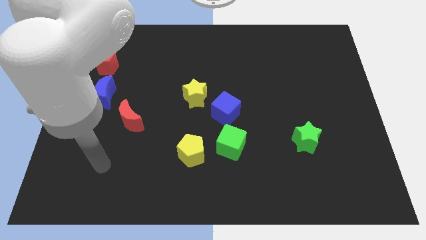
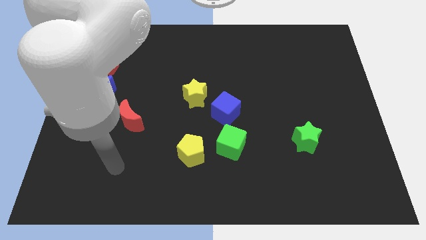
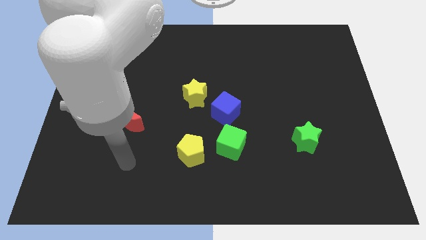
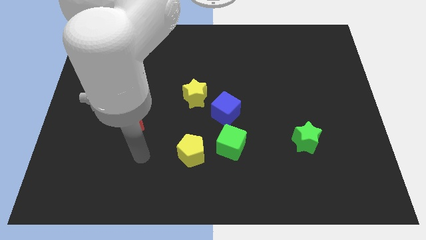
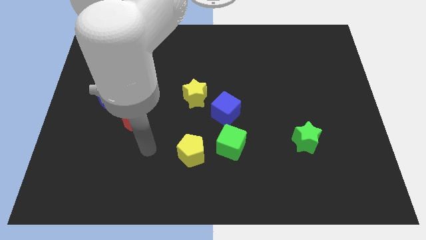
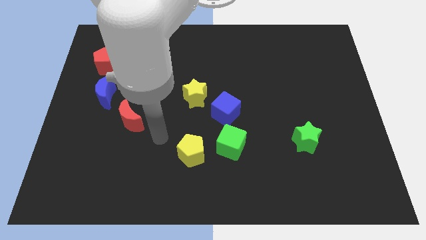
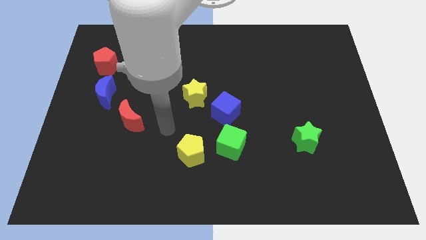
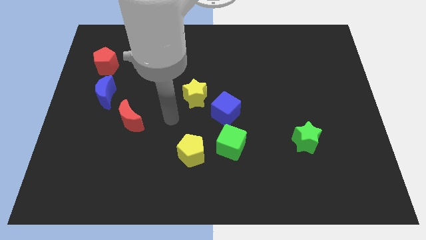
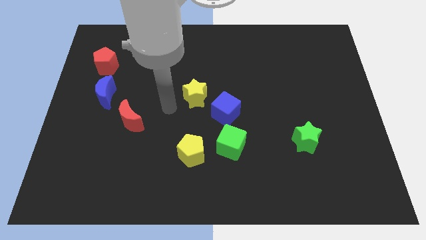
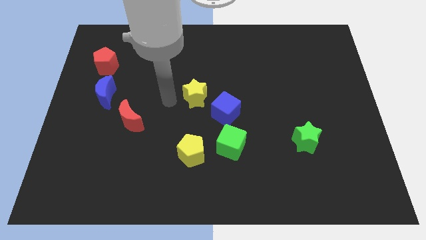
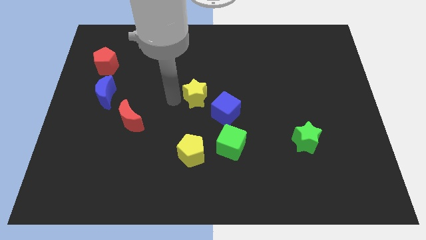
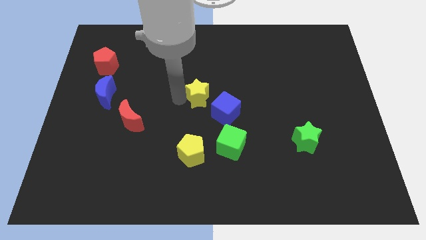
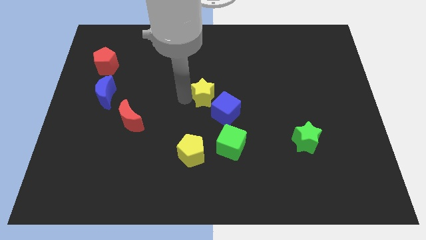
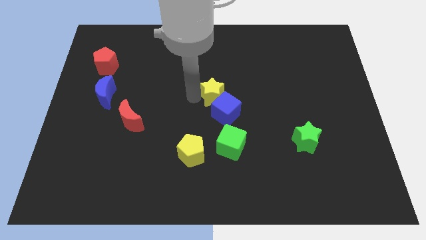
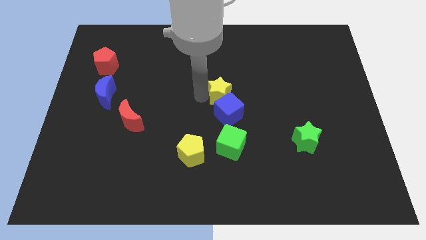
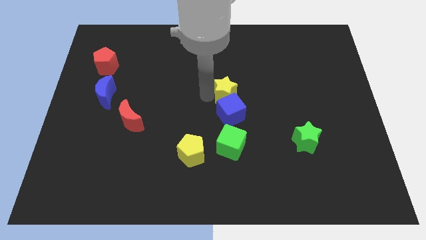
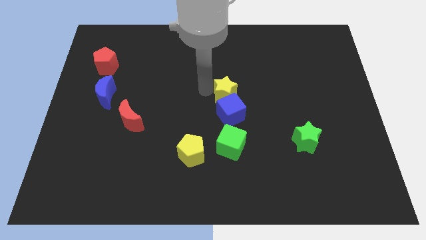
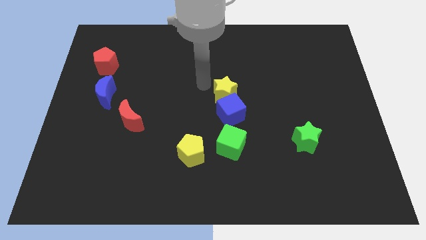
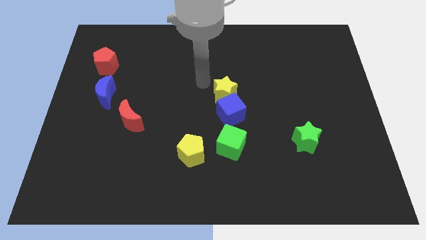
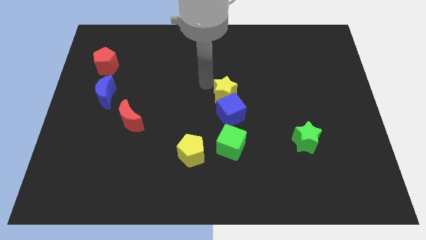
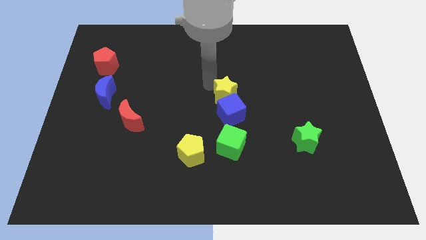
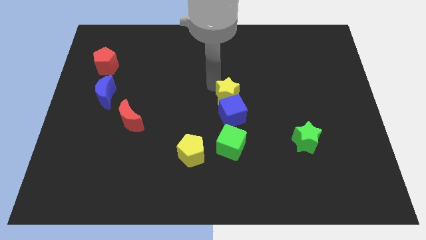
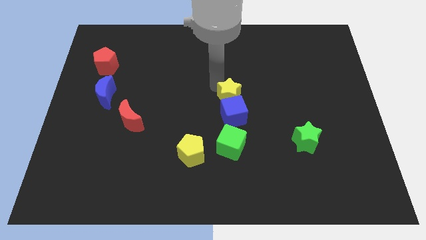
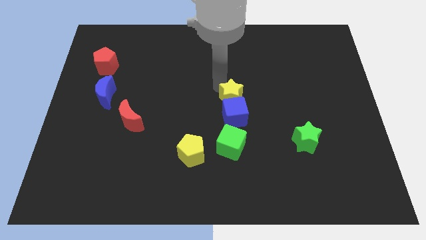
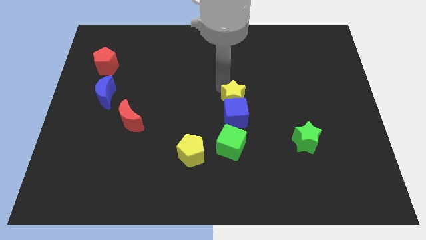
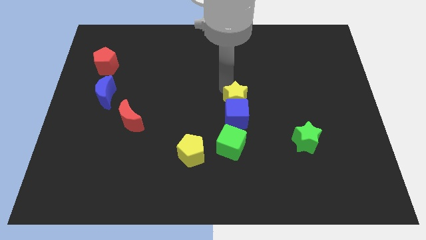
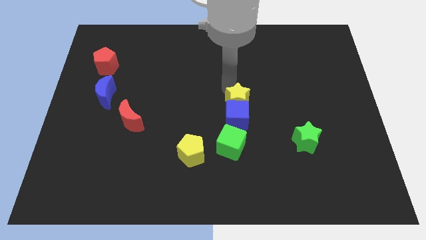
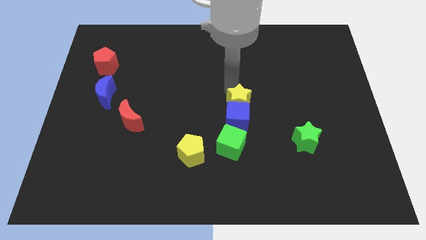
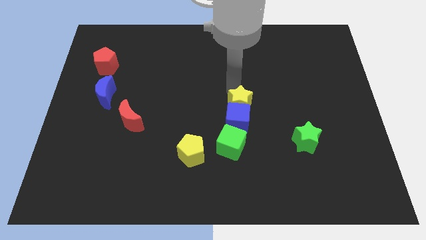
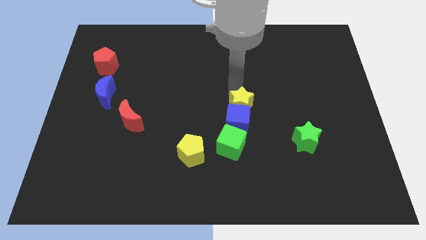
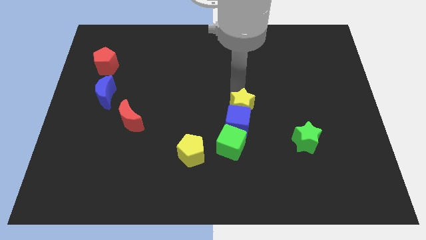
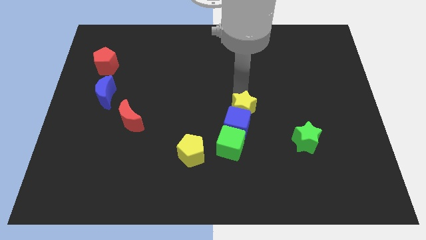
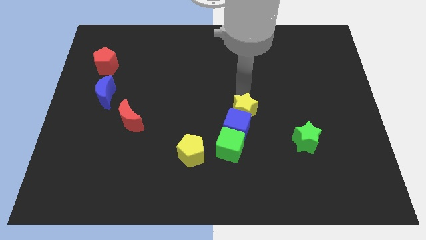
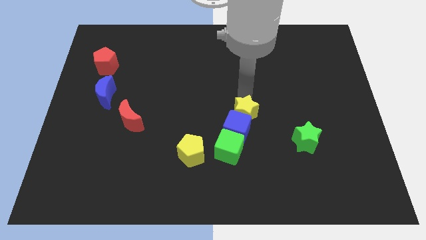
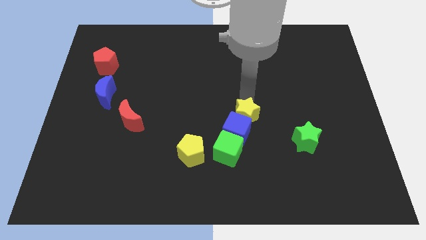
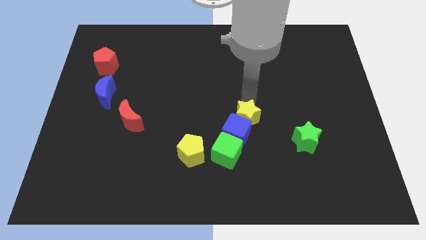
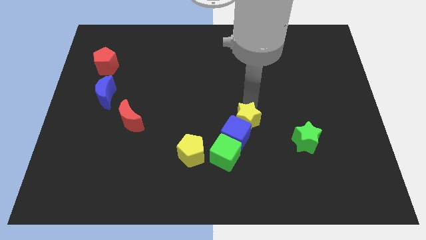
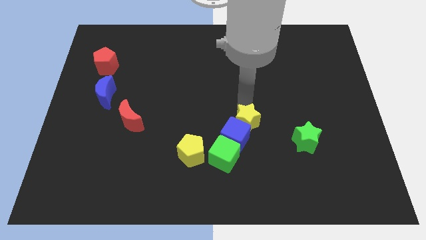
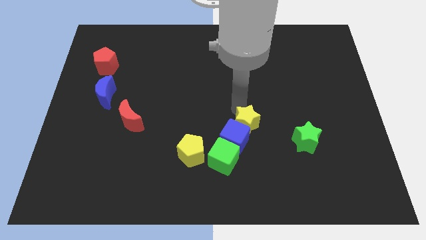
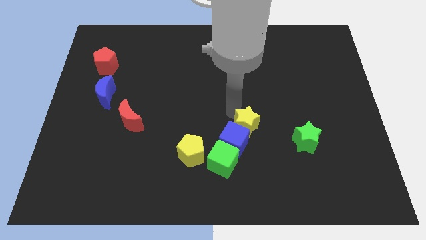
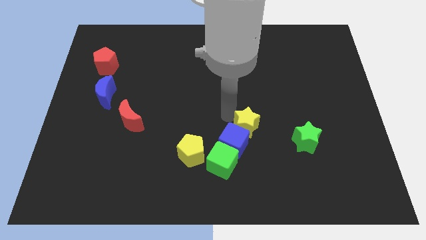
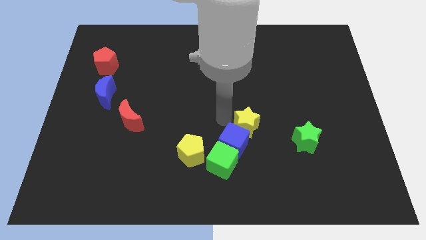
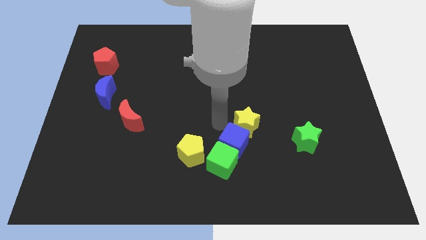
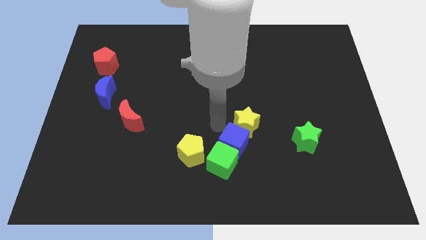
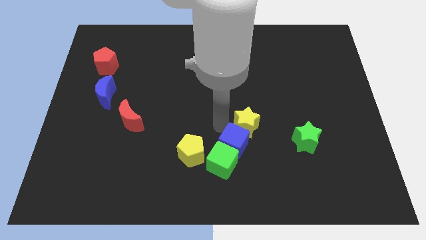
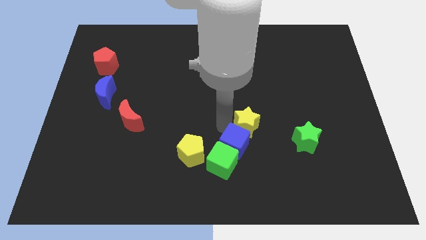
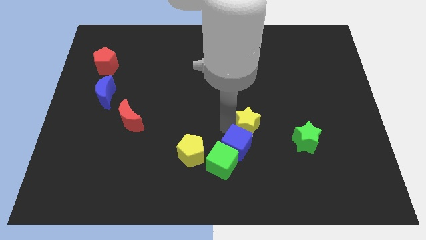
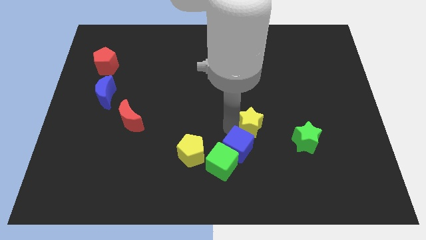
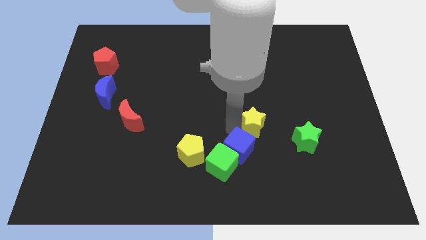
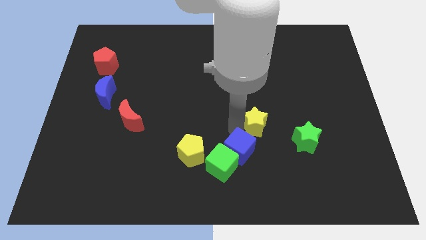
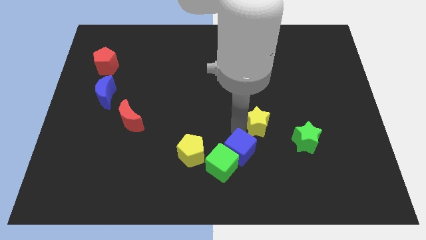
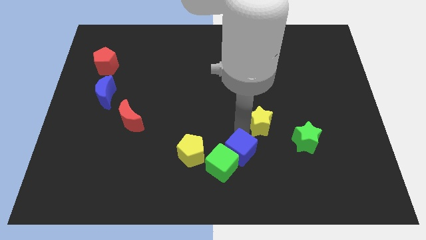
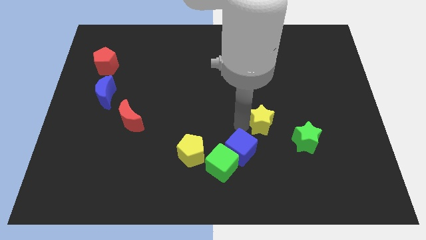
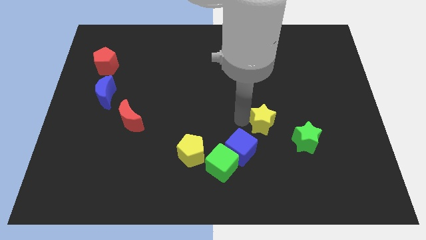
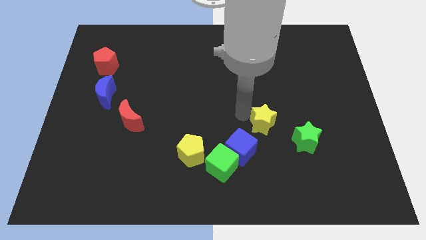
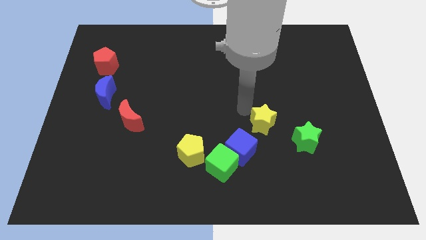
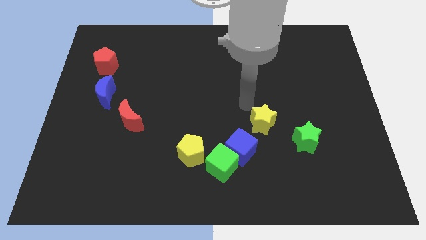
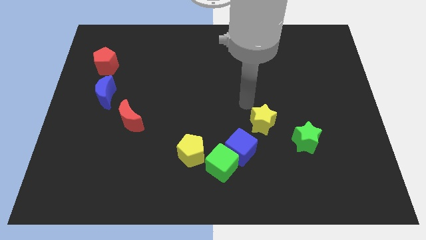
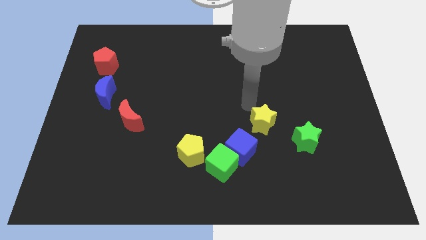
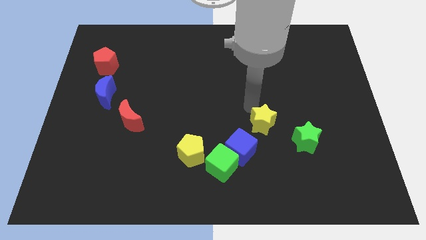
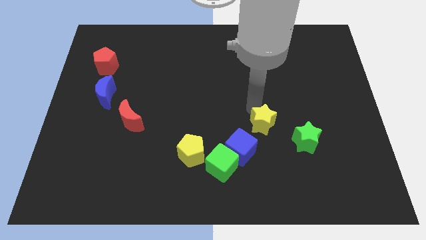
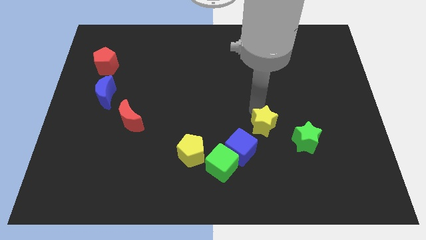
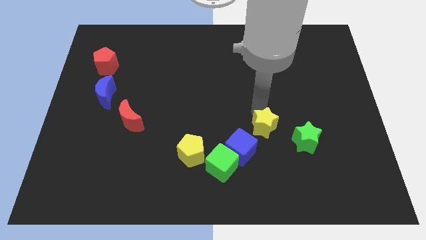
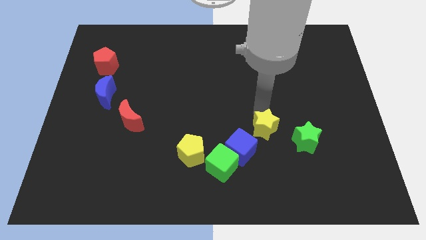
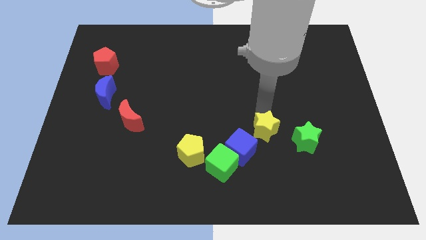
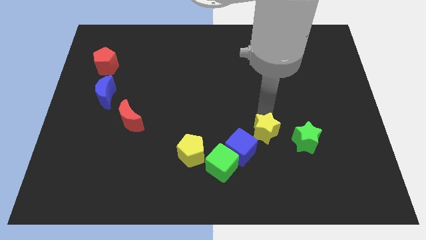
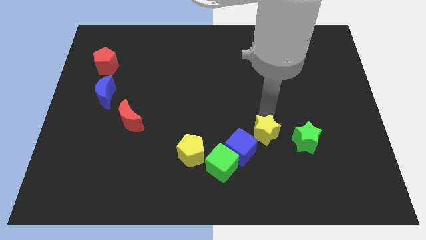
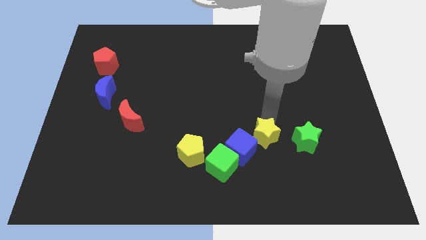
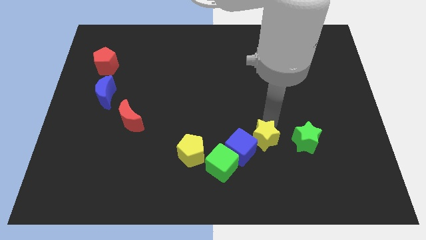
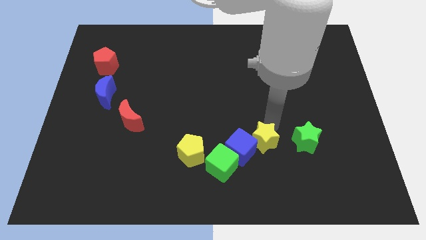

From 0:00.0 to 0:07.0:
push the yellow star down and then to the right

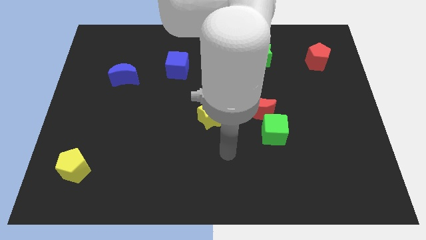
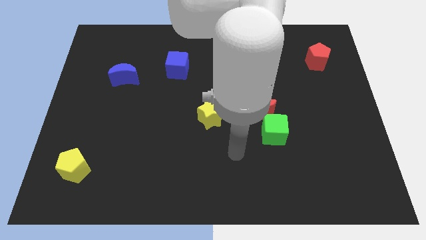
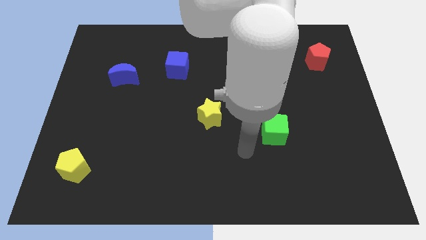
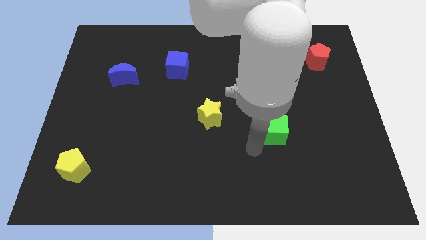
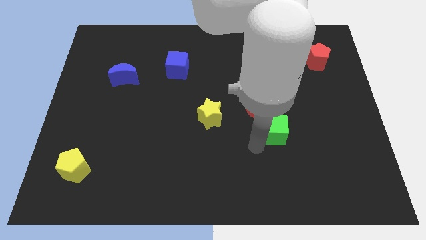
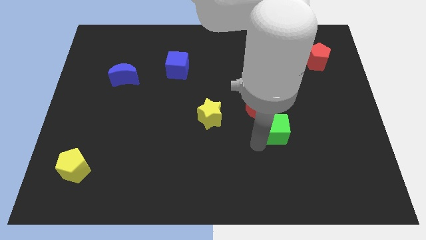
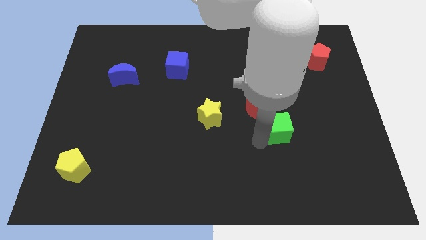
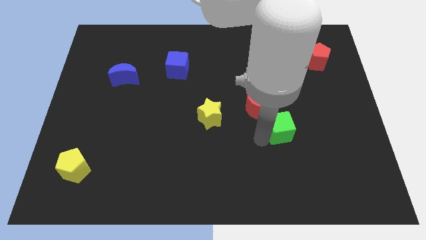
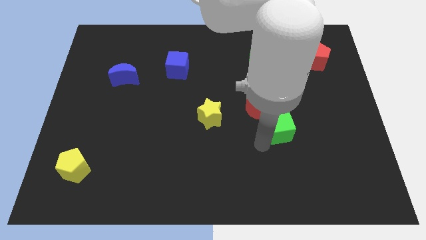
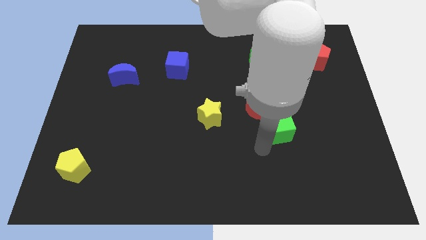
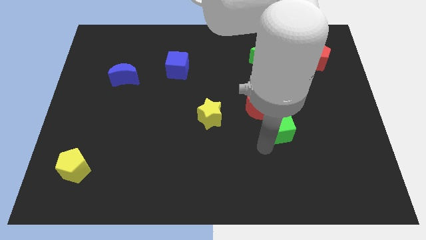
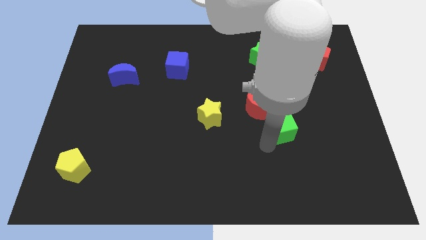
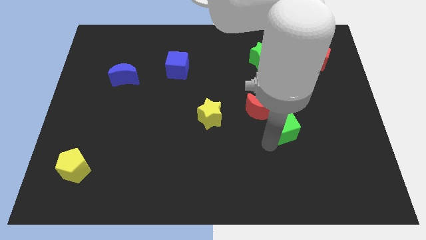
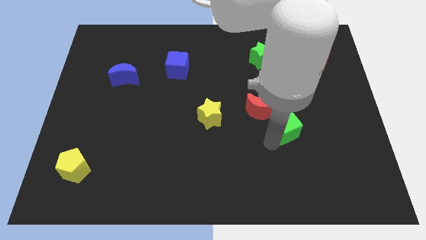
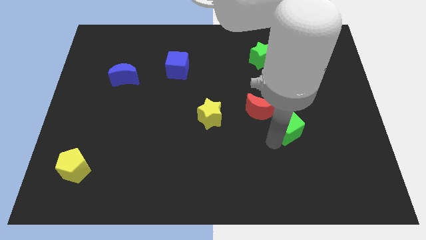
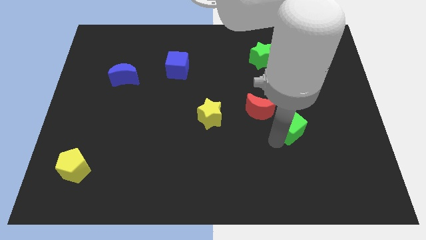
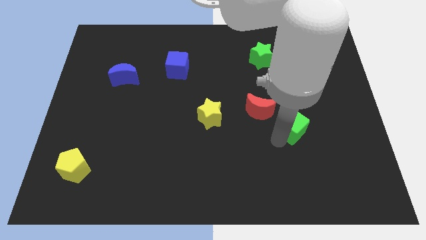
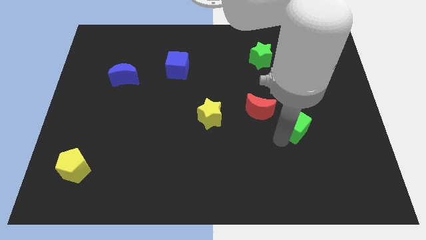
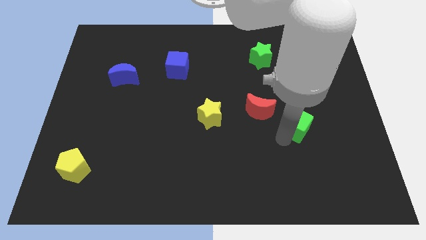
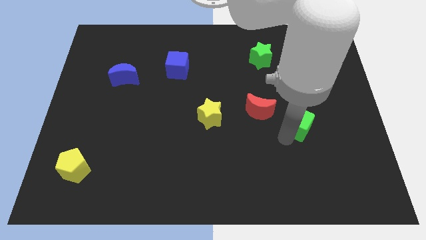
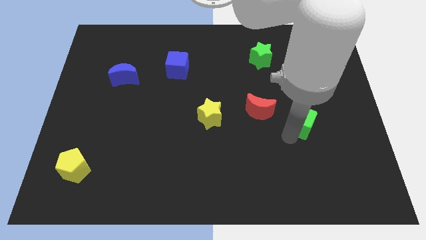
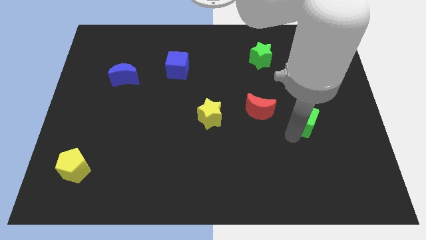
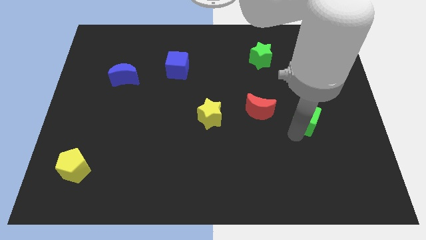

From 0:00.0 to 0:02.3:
slide the green cube a little diagonally upwards and to the right
